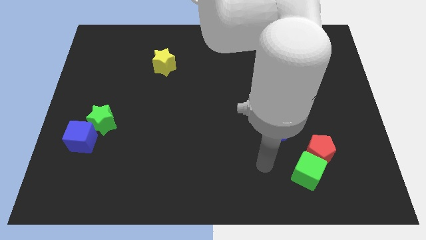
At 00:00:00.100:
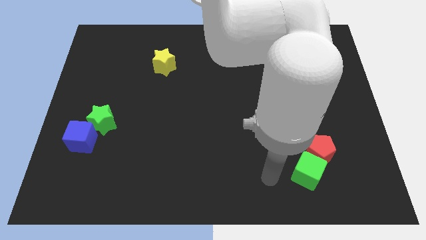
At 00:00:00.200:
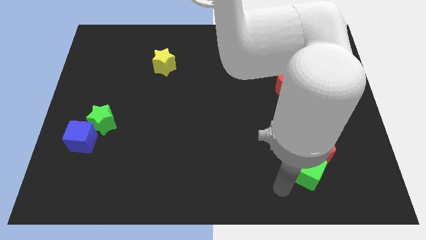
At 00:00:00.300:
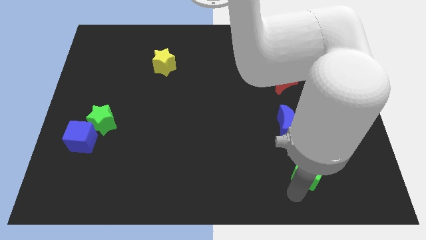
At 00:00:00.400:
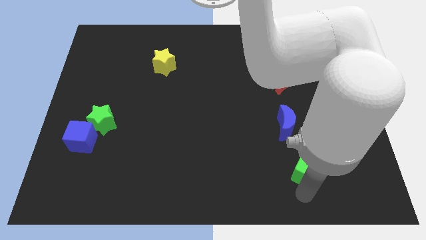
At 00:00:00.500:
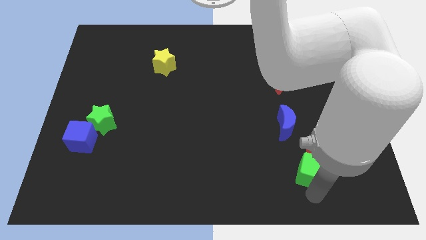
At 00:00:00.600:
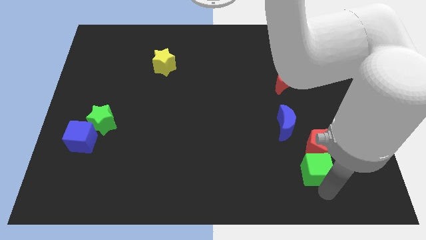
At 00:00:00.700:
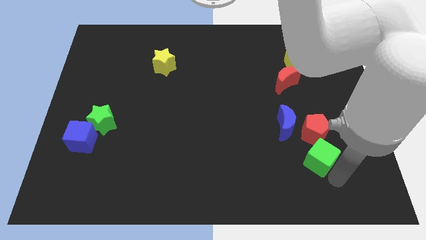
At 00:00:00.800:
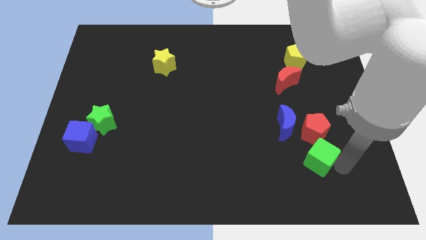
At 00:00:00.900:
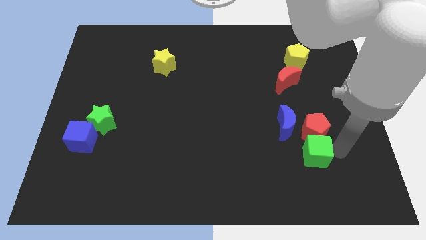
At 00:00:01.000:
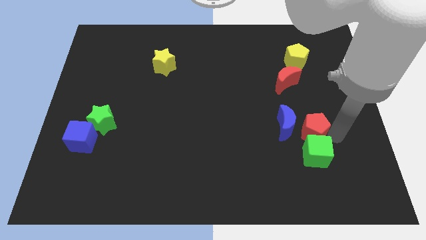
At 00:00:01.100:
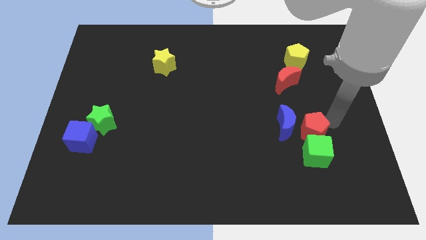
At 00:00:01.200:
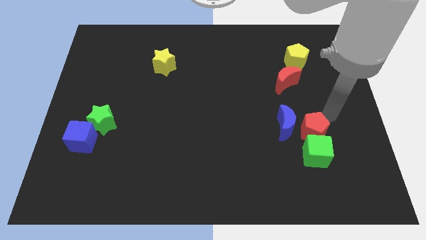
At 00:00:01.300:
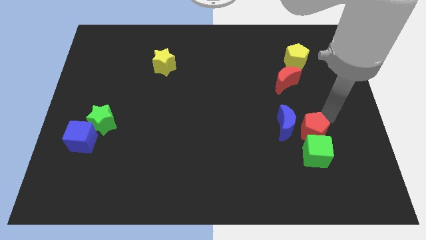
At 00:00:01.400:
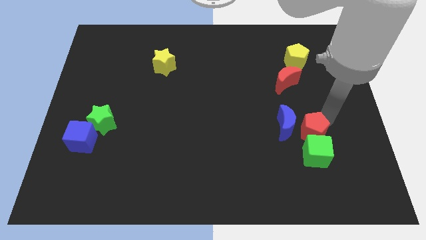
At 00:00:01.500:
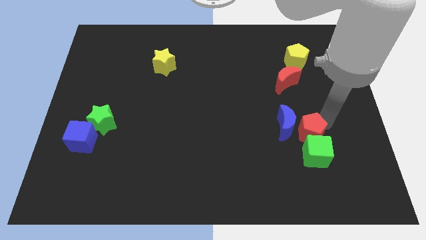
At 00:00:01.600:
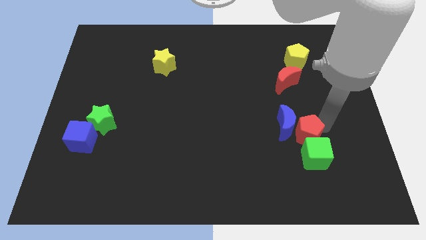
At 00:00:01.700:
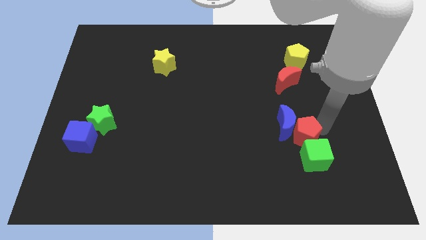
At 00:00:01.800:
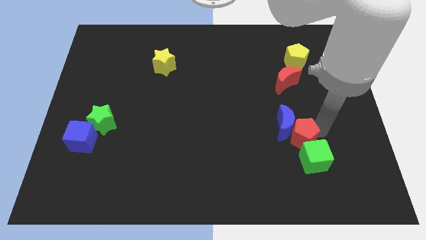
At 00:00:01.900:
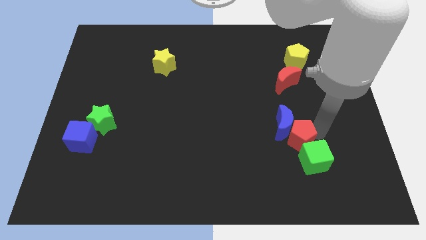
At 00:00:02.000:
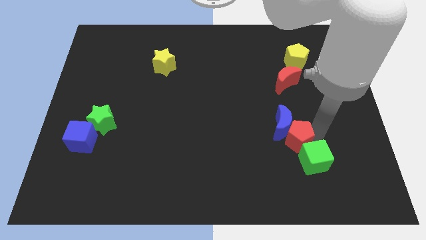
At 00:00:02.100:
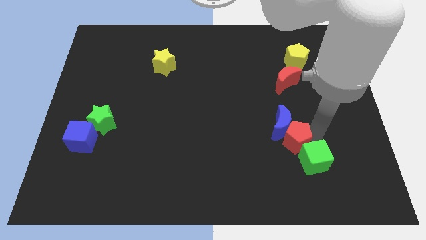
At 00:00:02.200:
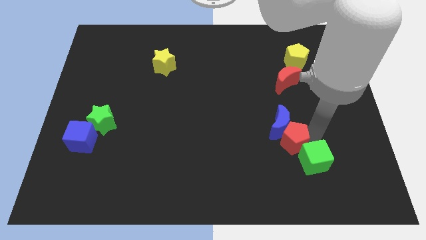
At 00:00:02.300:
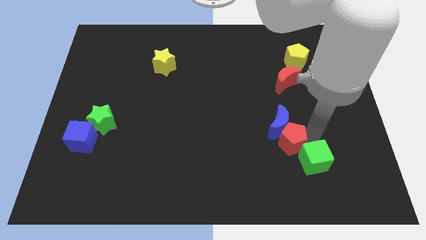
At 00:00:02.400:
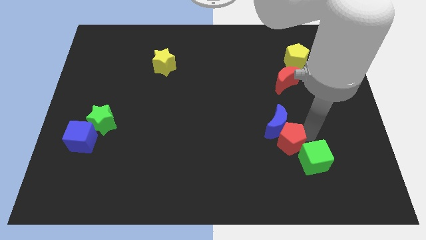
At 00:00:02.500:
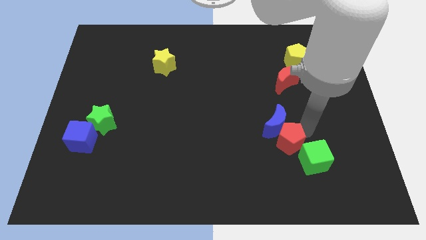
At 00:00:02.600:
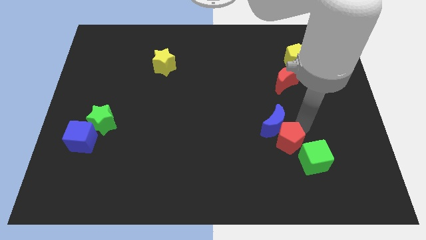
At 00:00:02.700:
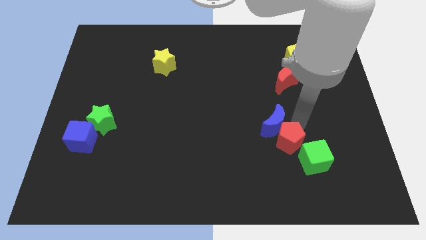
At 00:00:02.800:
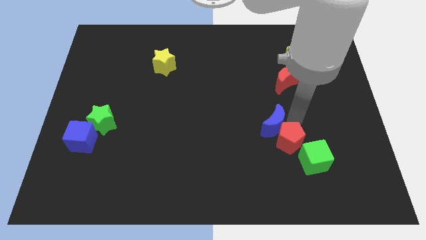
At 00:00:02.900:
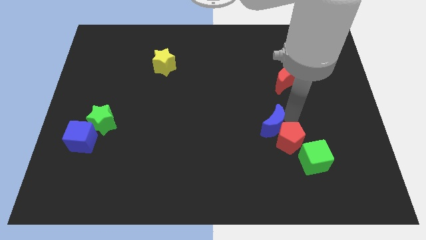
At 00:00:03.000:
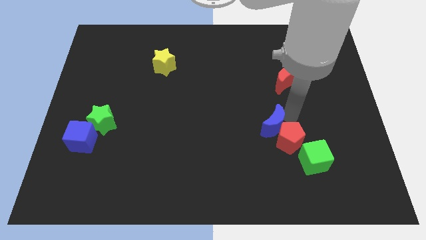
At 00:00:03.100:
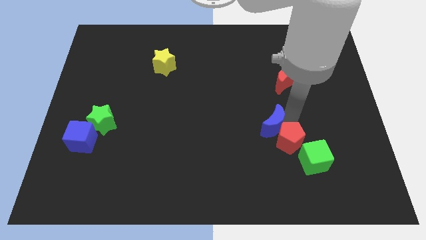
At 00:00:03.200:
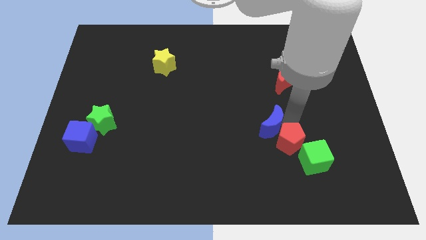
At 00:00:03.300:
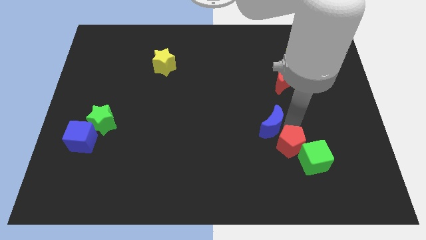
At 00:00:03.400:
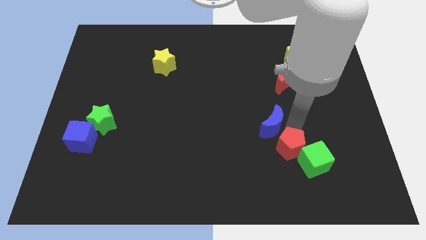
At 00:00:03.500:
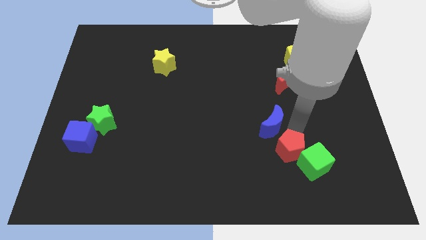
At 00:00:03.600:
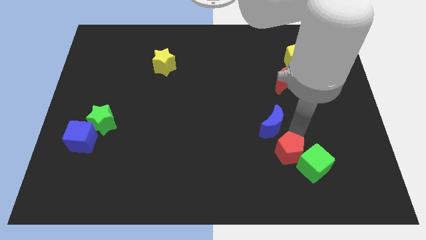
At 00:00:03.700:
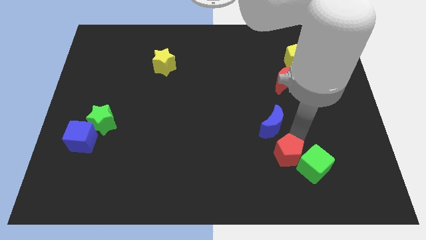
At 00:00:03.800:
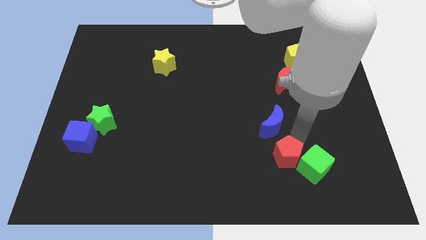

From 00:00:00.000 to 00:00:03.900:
push the red pentagon somewhat left

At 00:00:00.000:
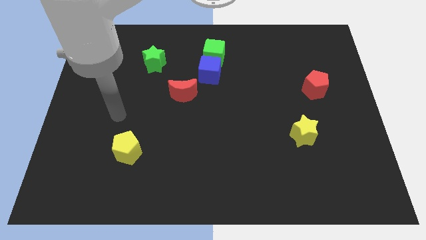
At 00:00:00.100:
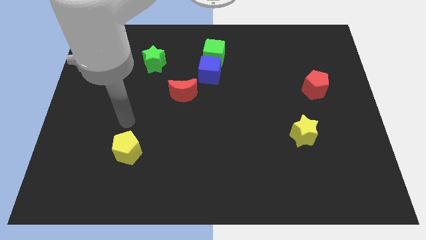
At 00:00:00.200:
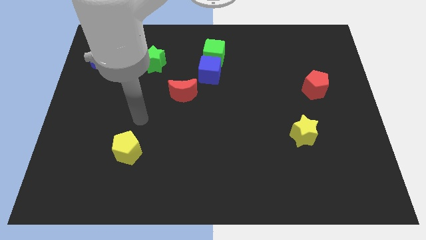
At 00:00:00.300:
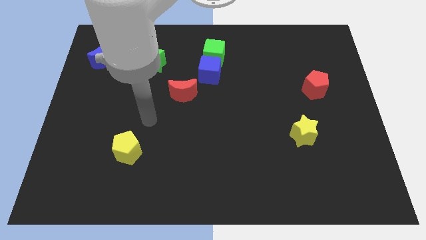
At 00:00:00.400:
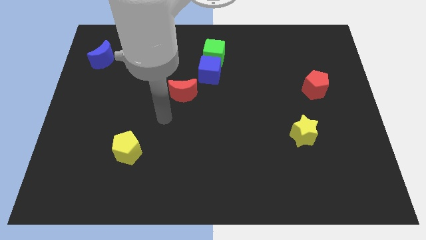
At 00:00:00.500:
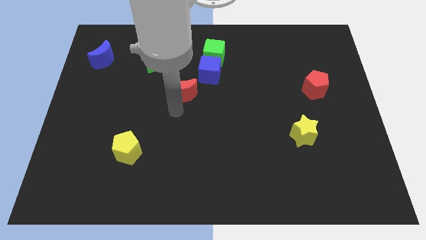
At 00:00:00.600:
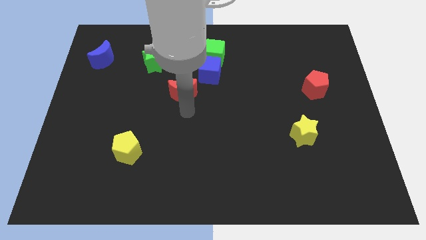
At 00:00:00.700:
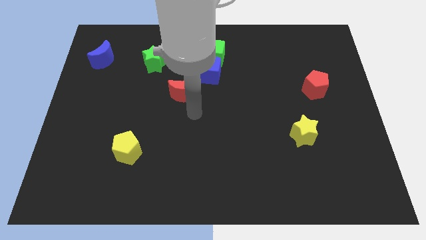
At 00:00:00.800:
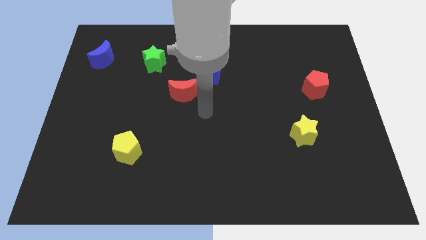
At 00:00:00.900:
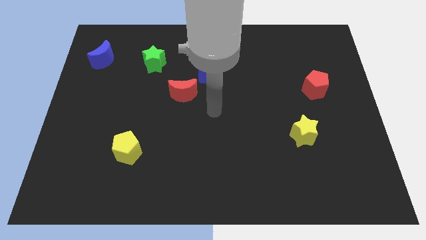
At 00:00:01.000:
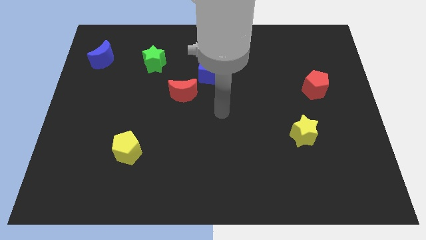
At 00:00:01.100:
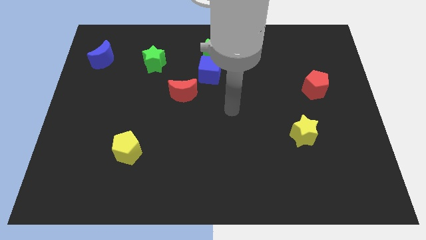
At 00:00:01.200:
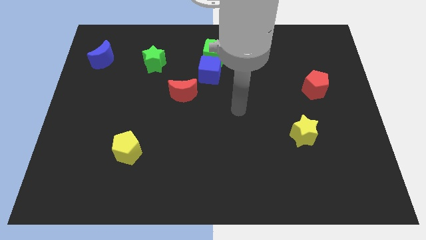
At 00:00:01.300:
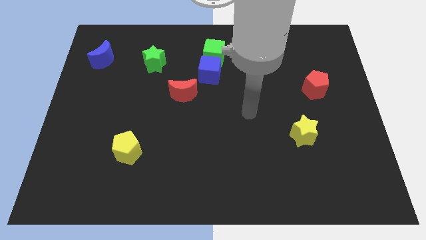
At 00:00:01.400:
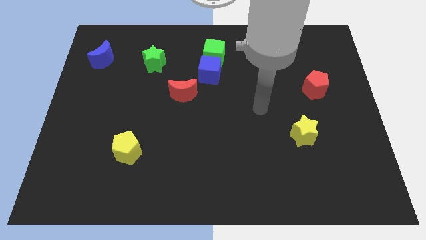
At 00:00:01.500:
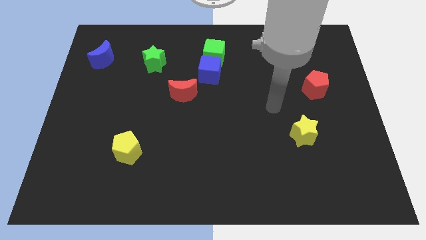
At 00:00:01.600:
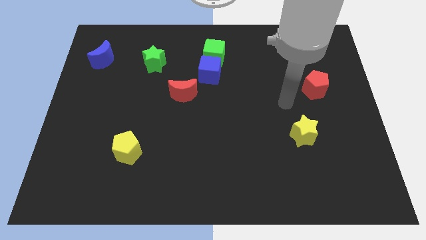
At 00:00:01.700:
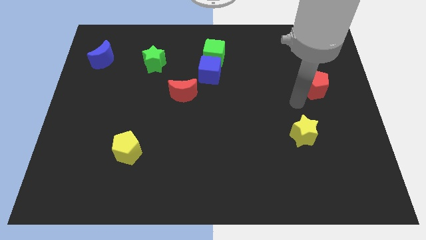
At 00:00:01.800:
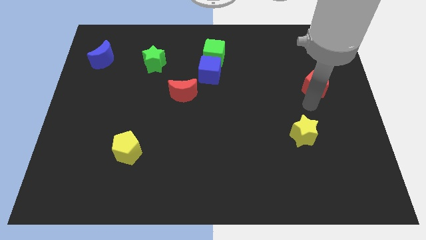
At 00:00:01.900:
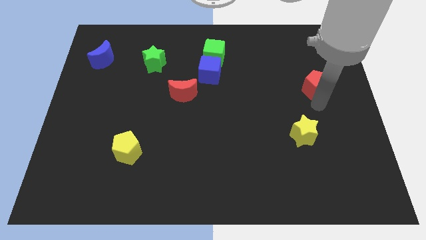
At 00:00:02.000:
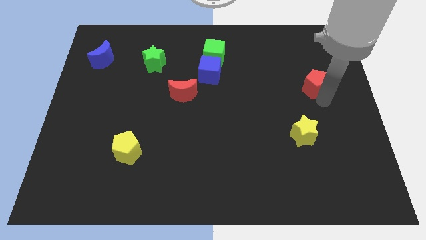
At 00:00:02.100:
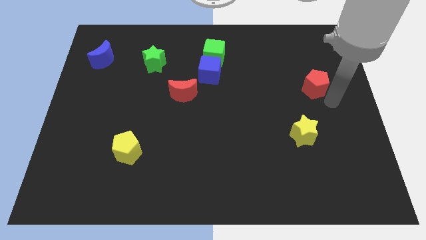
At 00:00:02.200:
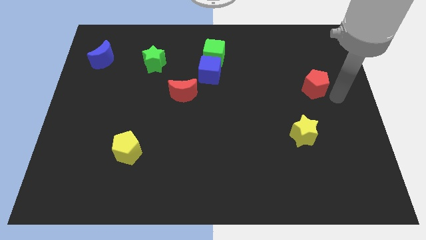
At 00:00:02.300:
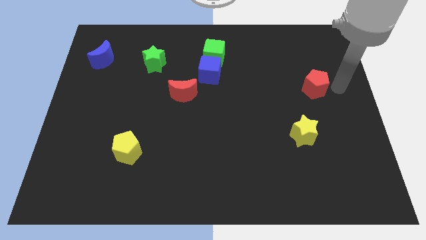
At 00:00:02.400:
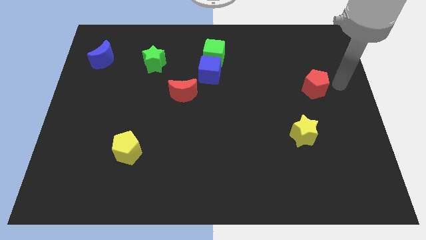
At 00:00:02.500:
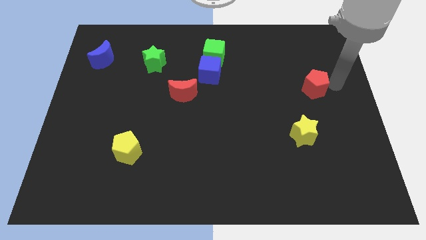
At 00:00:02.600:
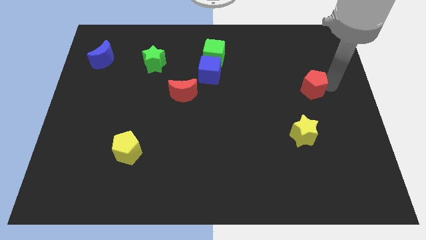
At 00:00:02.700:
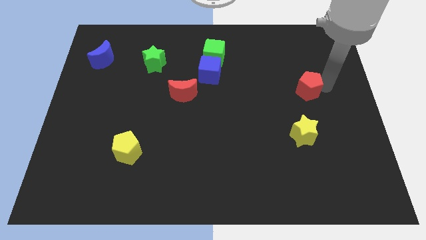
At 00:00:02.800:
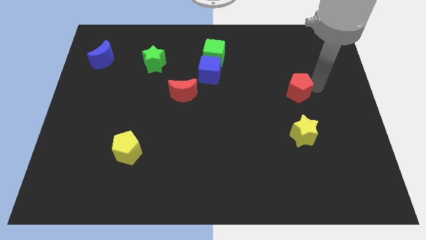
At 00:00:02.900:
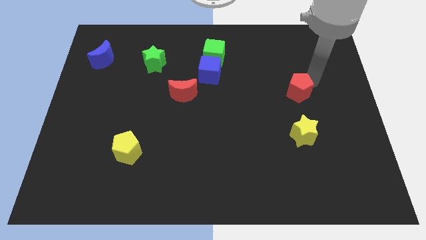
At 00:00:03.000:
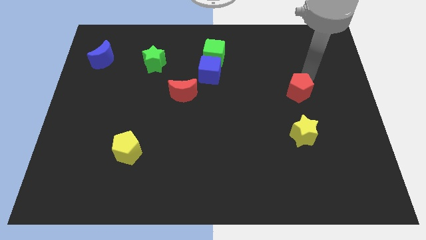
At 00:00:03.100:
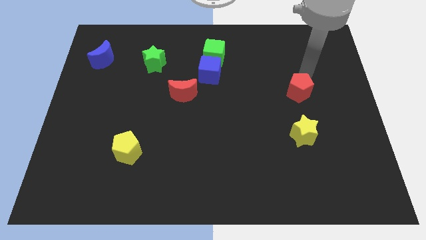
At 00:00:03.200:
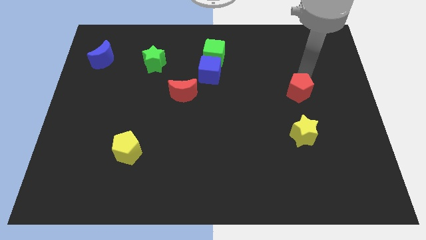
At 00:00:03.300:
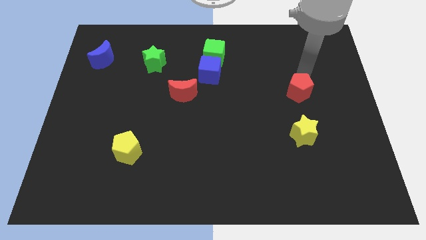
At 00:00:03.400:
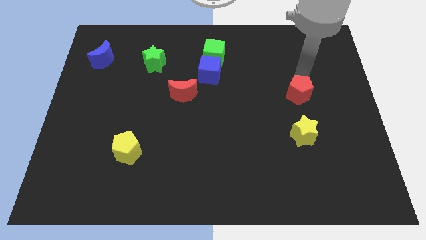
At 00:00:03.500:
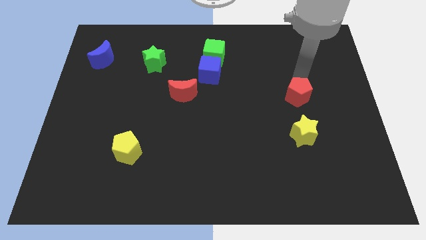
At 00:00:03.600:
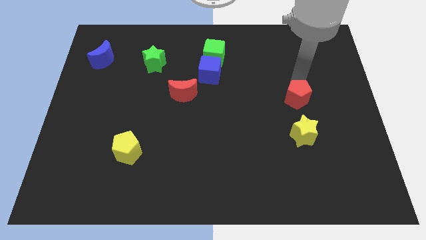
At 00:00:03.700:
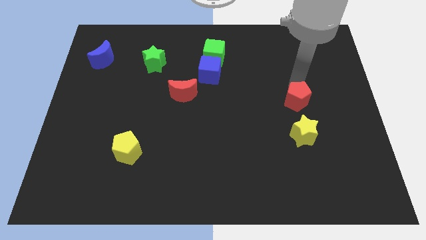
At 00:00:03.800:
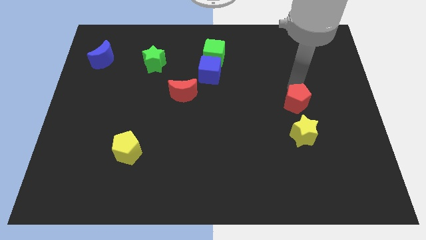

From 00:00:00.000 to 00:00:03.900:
push the red pentagon downwards and then left a bit

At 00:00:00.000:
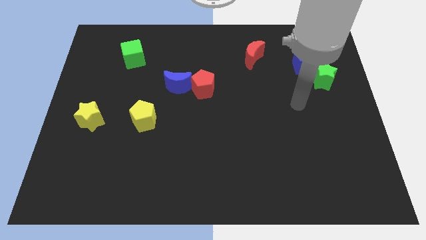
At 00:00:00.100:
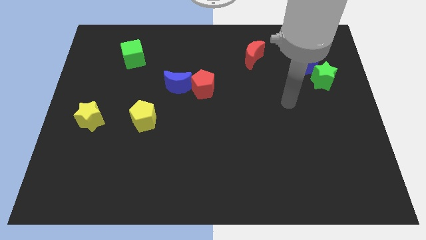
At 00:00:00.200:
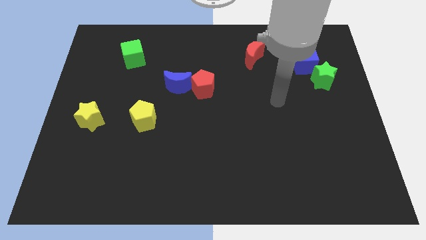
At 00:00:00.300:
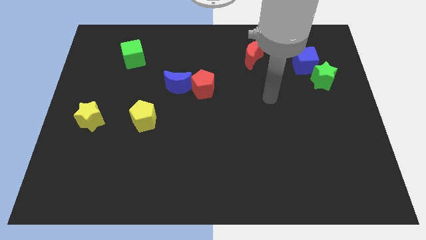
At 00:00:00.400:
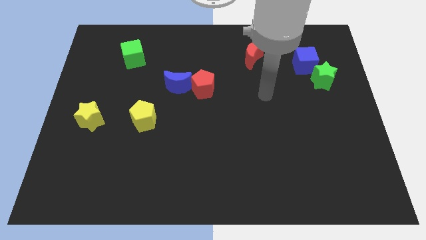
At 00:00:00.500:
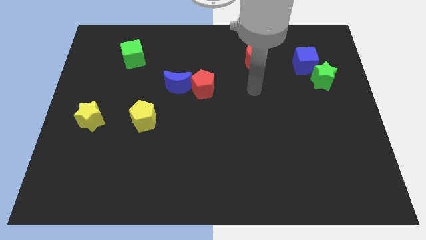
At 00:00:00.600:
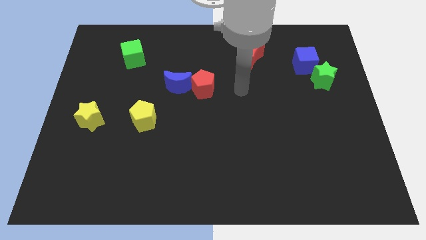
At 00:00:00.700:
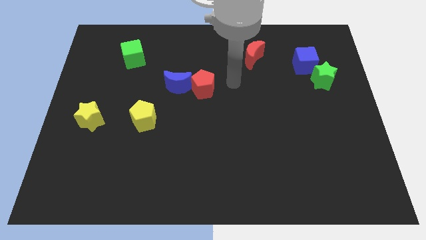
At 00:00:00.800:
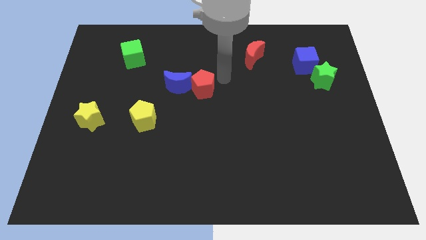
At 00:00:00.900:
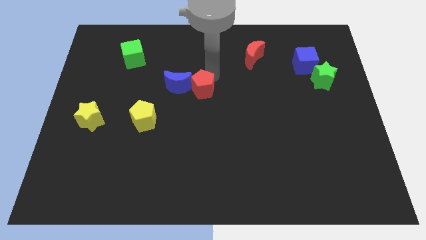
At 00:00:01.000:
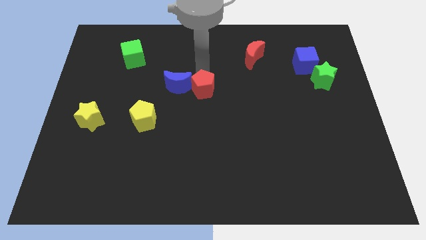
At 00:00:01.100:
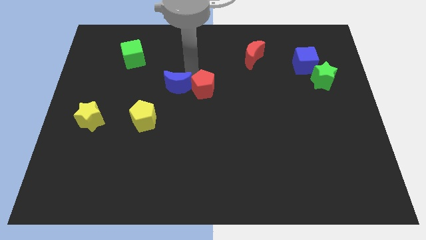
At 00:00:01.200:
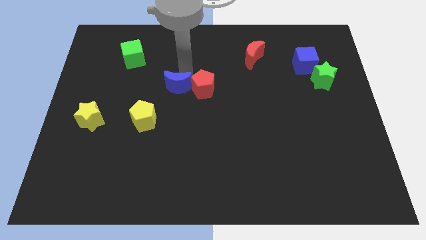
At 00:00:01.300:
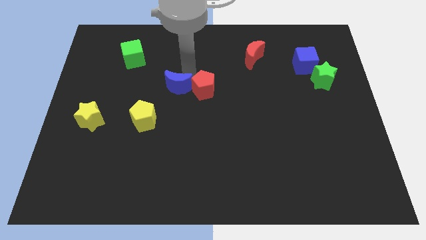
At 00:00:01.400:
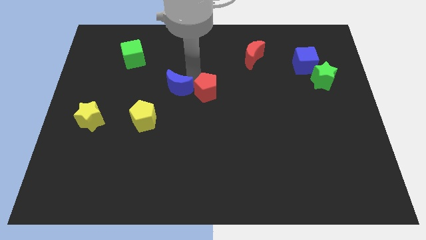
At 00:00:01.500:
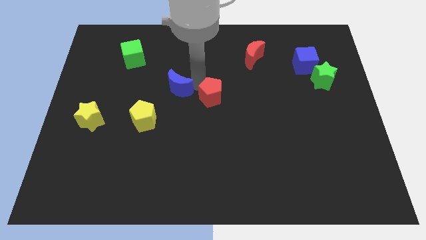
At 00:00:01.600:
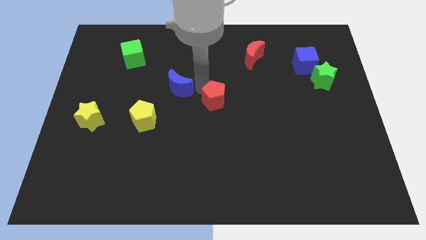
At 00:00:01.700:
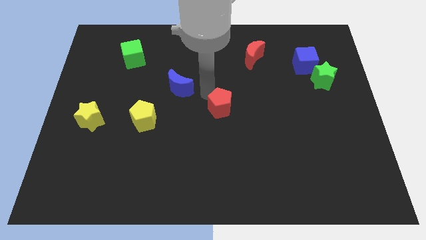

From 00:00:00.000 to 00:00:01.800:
slightly move the red pentagon down and right diagonally
